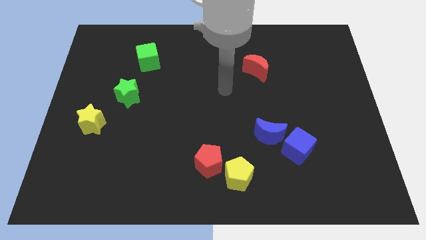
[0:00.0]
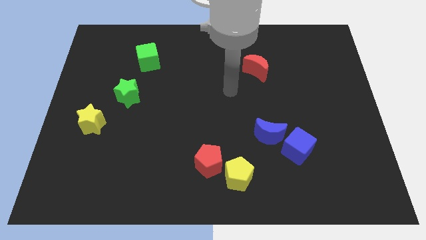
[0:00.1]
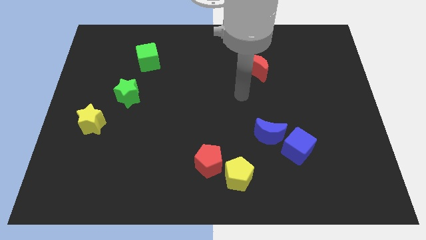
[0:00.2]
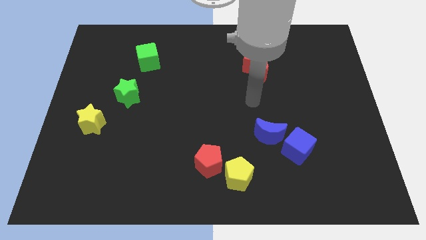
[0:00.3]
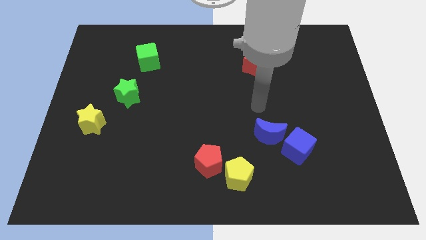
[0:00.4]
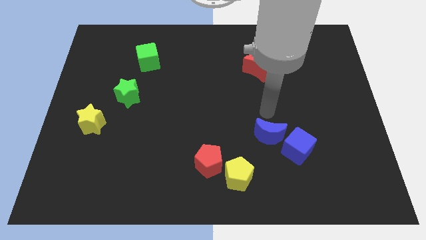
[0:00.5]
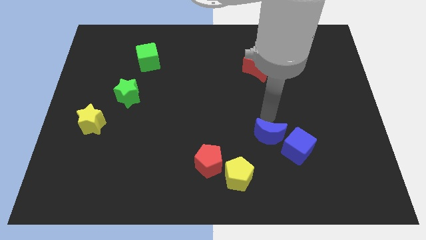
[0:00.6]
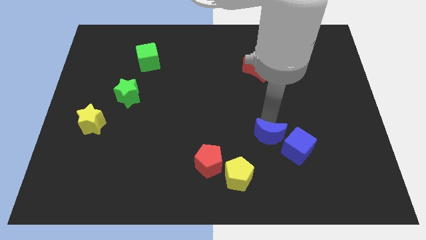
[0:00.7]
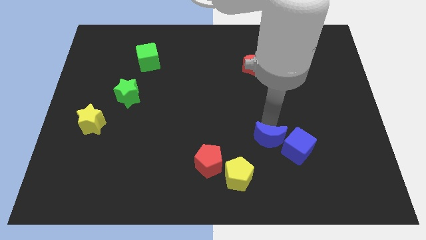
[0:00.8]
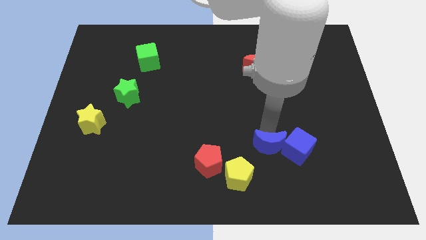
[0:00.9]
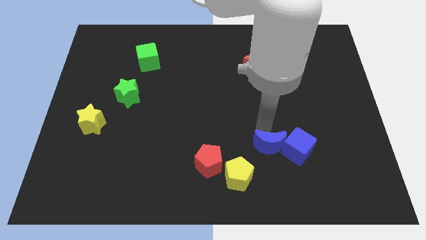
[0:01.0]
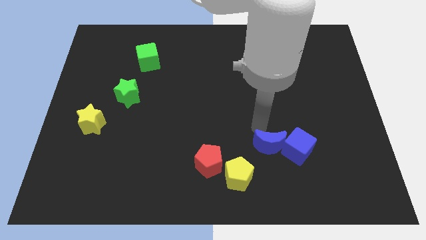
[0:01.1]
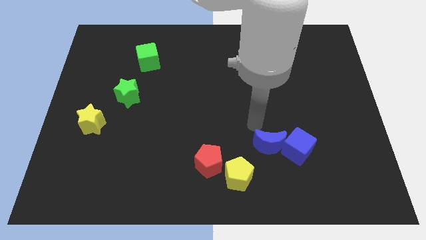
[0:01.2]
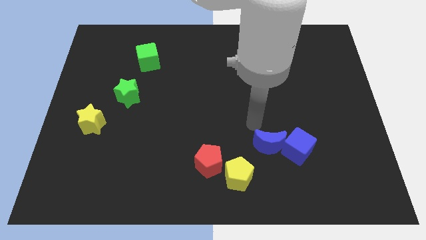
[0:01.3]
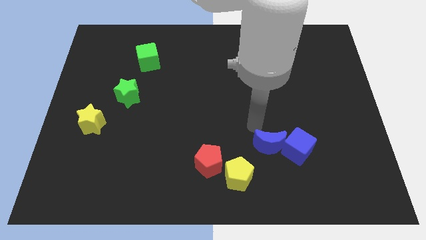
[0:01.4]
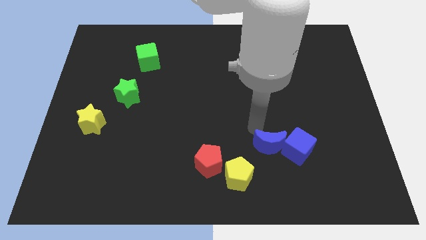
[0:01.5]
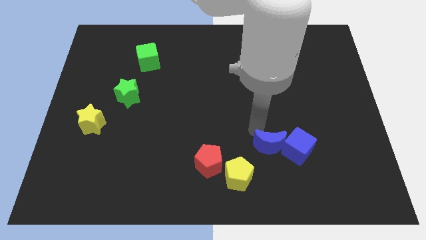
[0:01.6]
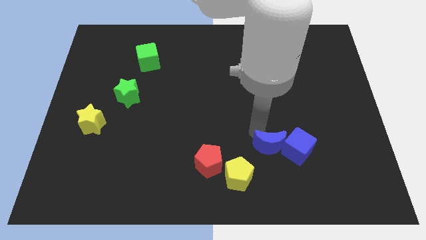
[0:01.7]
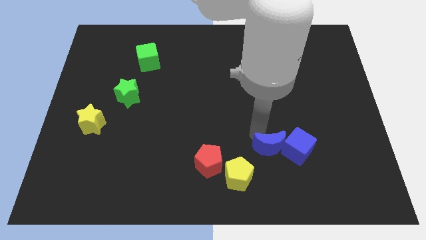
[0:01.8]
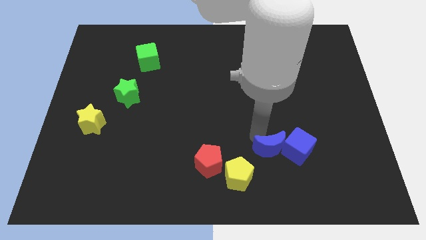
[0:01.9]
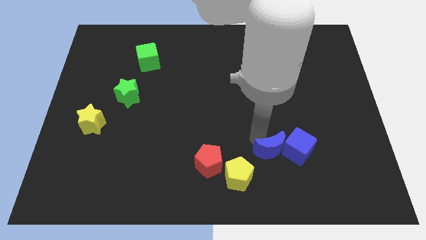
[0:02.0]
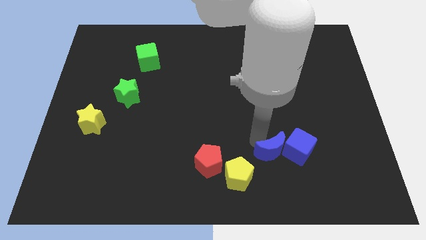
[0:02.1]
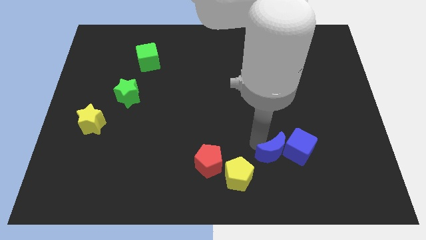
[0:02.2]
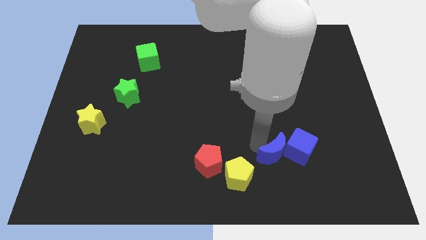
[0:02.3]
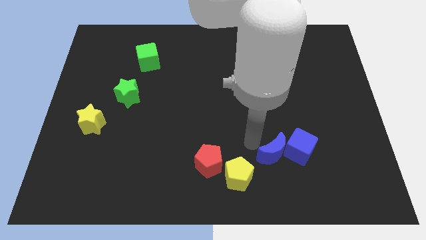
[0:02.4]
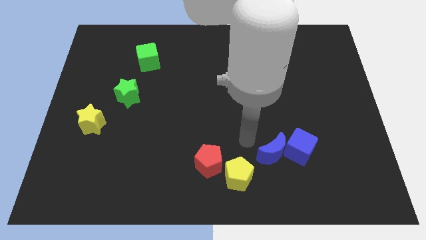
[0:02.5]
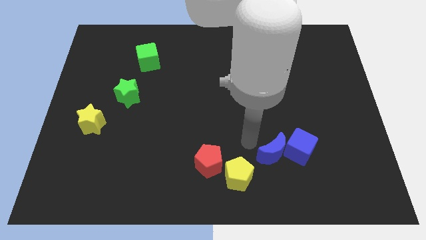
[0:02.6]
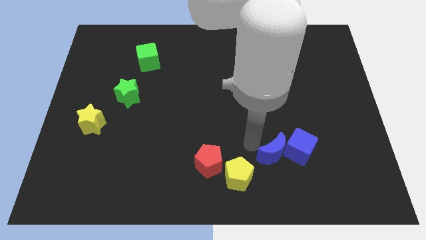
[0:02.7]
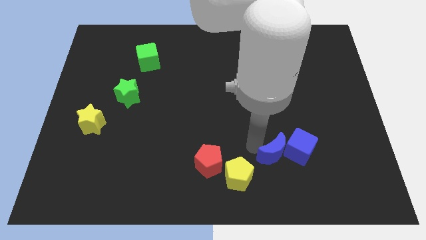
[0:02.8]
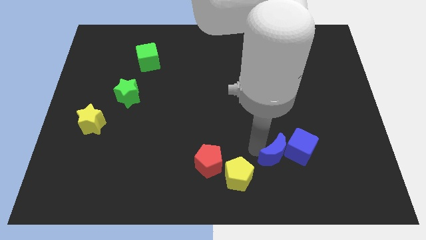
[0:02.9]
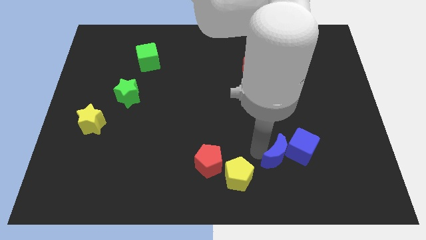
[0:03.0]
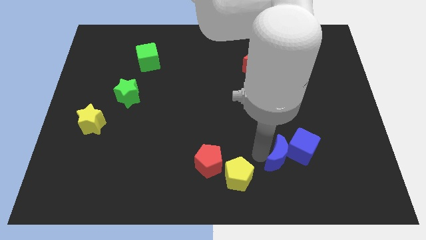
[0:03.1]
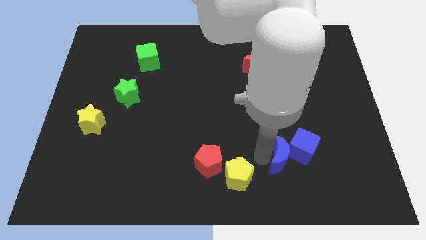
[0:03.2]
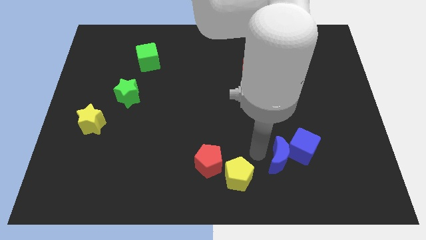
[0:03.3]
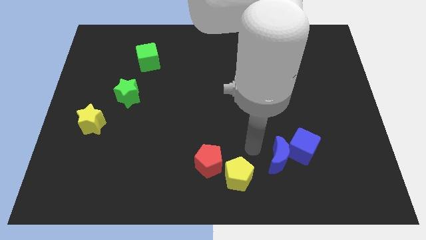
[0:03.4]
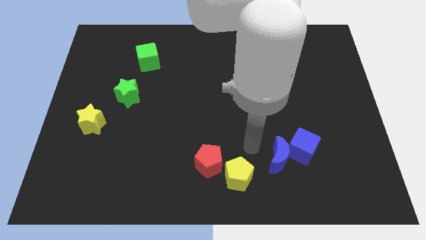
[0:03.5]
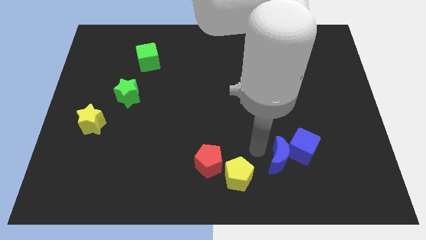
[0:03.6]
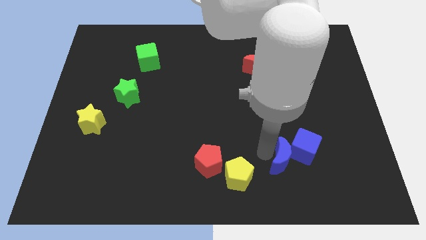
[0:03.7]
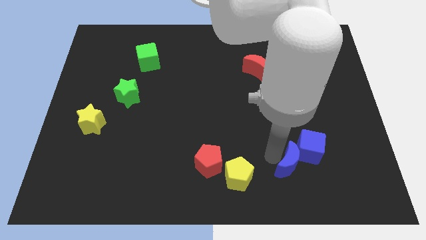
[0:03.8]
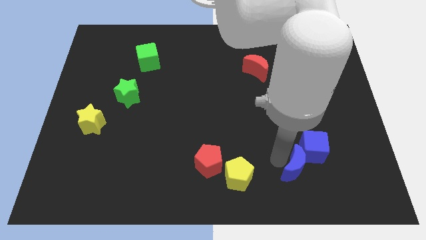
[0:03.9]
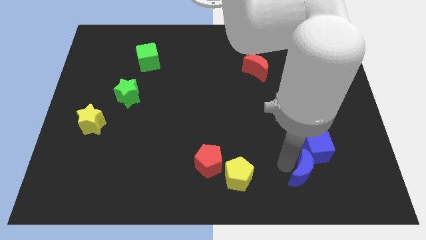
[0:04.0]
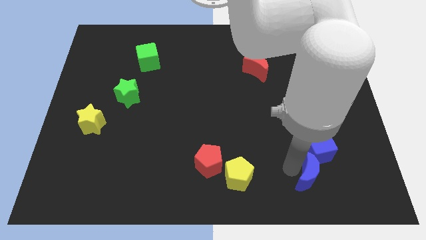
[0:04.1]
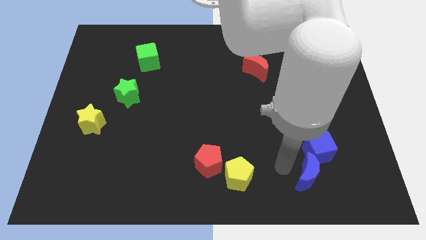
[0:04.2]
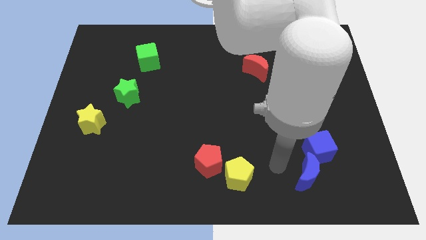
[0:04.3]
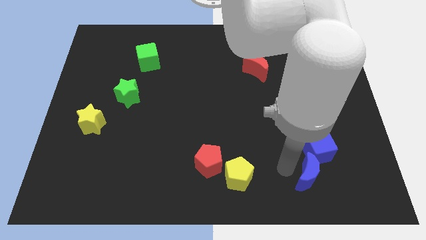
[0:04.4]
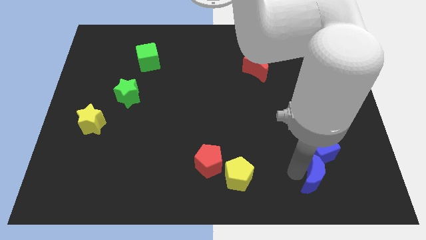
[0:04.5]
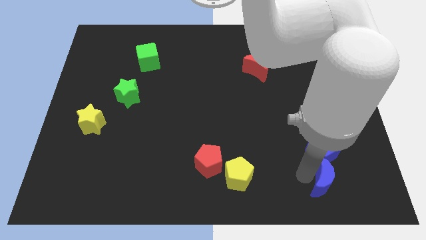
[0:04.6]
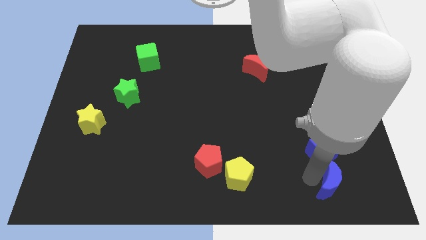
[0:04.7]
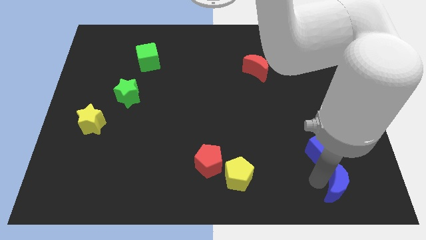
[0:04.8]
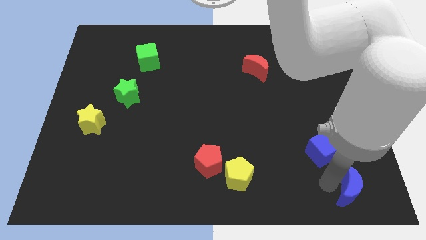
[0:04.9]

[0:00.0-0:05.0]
push the blue moon to the bottom right
